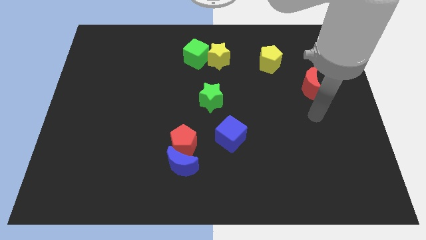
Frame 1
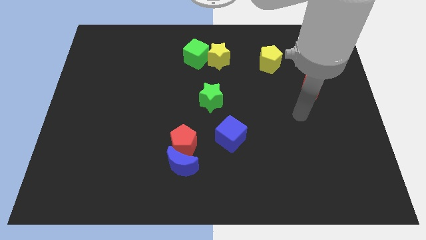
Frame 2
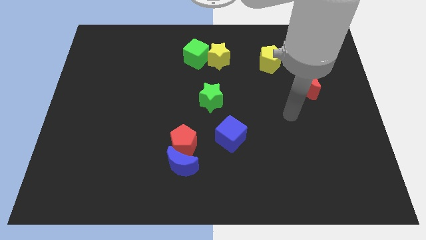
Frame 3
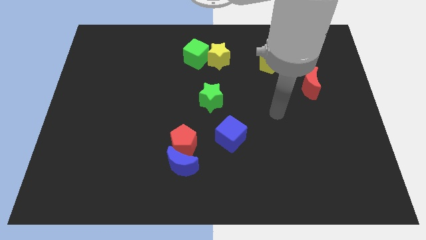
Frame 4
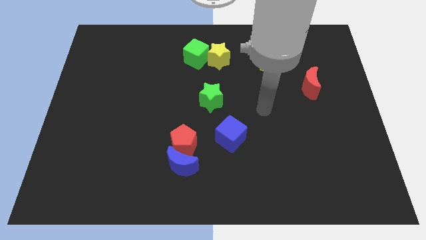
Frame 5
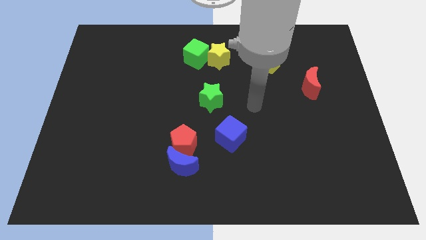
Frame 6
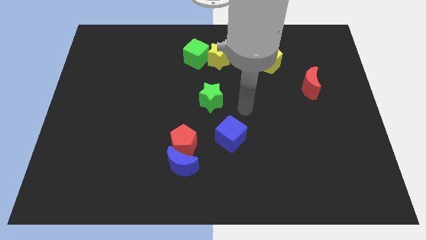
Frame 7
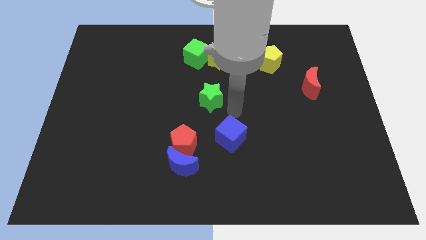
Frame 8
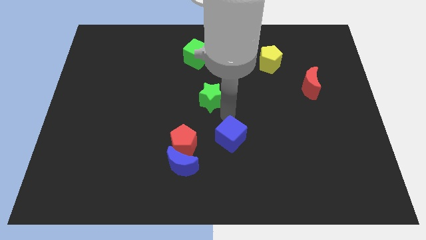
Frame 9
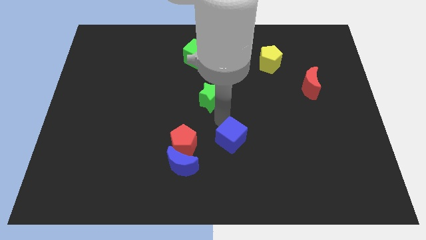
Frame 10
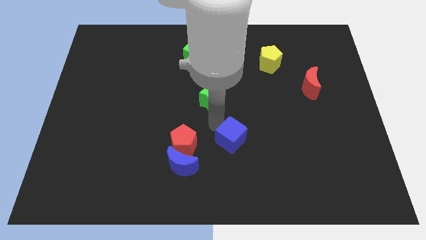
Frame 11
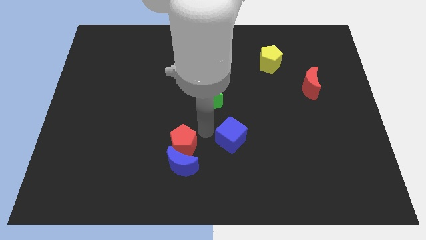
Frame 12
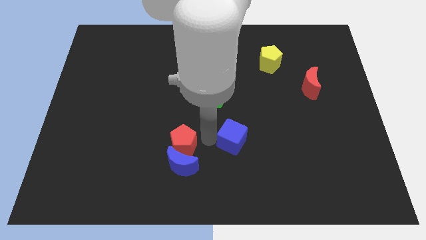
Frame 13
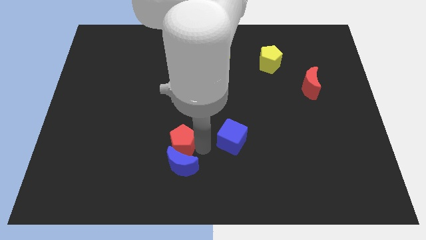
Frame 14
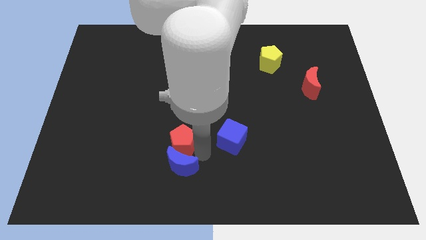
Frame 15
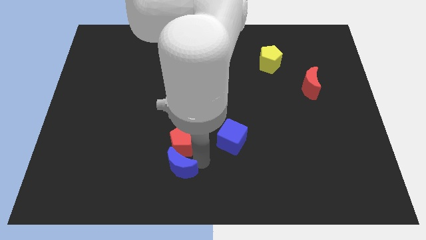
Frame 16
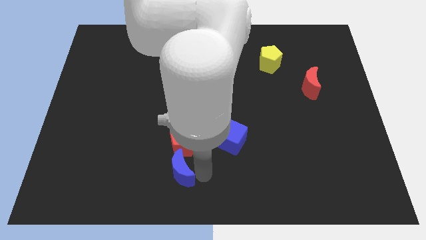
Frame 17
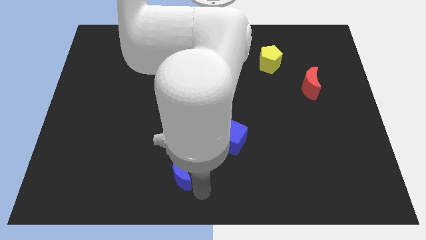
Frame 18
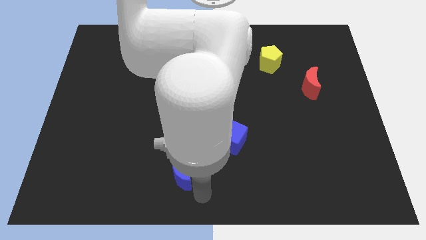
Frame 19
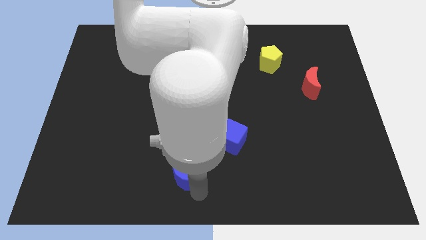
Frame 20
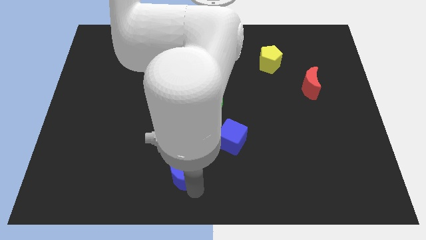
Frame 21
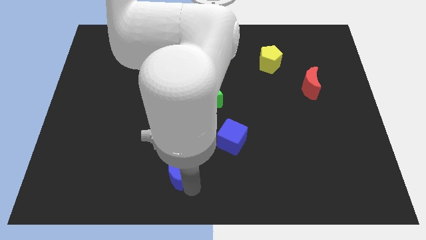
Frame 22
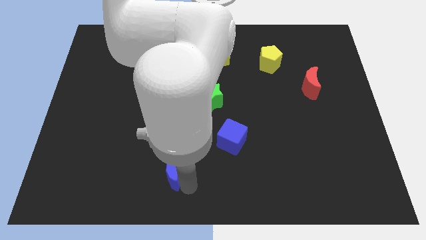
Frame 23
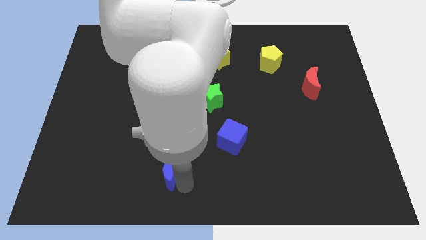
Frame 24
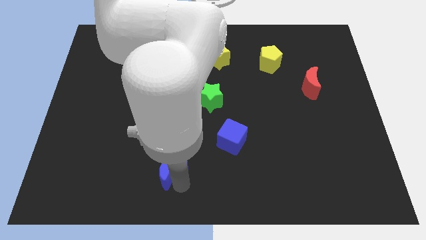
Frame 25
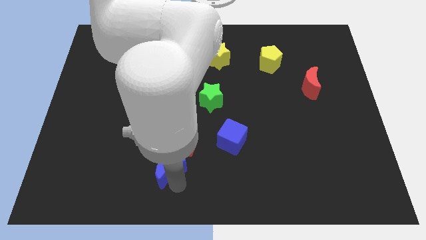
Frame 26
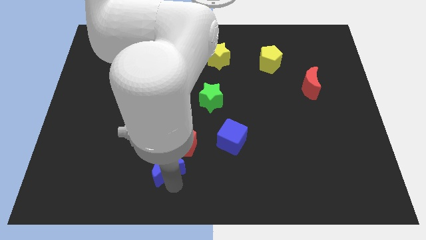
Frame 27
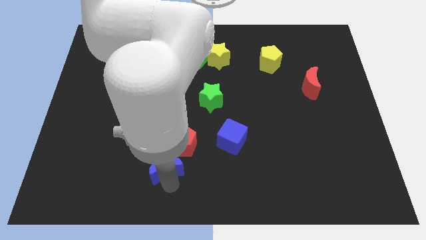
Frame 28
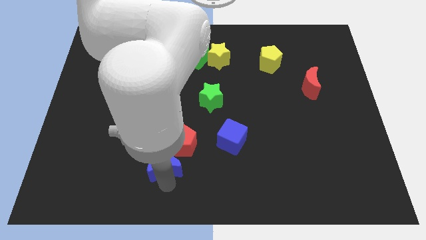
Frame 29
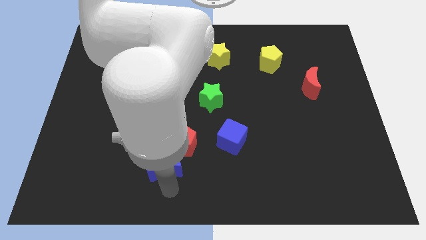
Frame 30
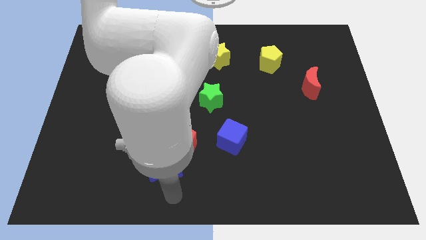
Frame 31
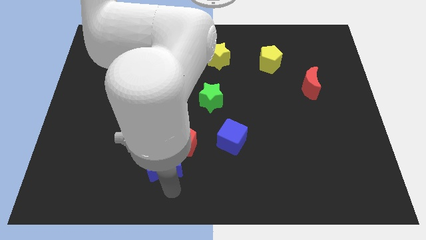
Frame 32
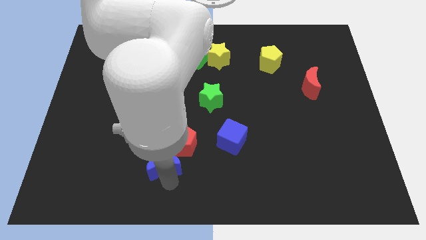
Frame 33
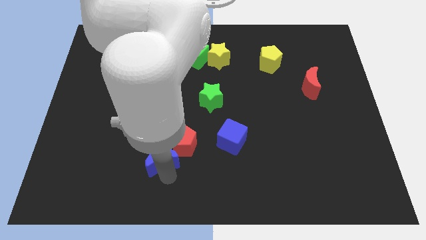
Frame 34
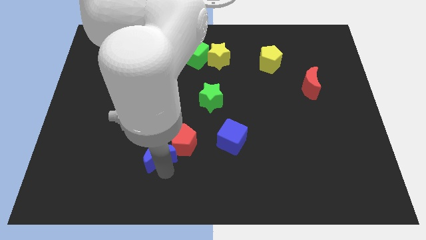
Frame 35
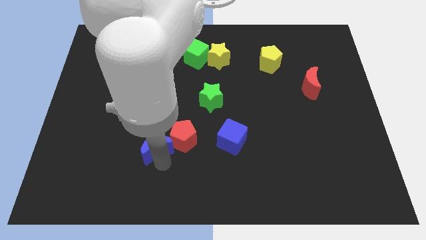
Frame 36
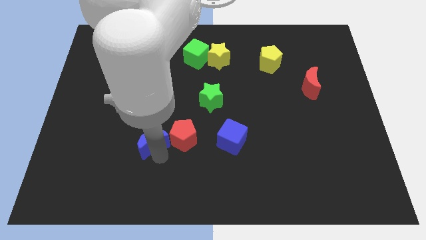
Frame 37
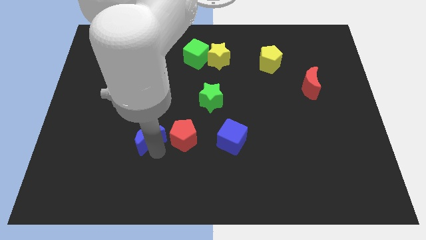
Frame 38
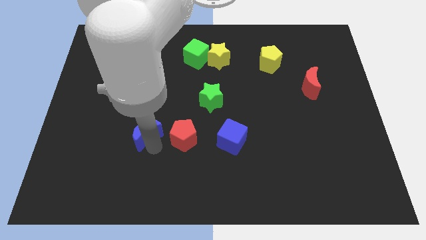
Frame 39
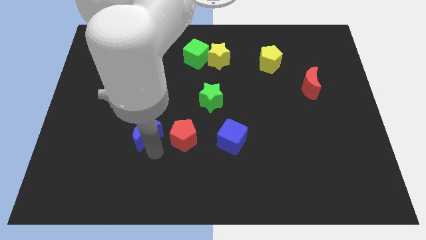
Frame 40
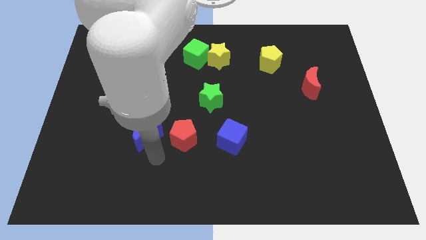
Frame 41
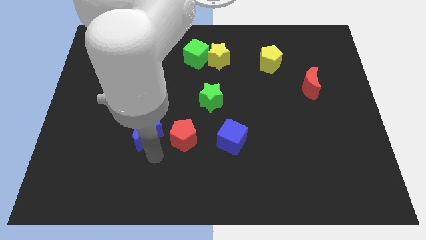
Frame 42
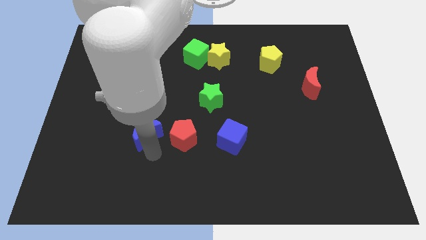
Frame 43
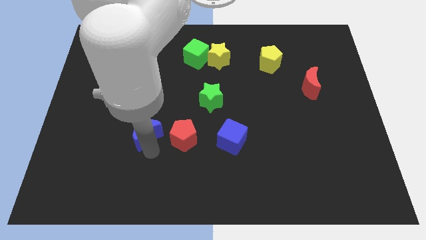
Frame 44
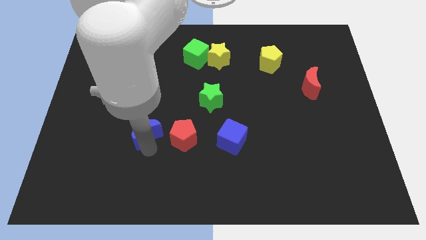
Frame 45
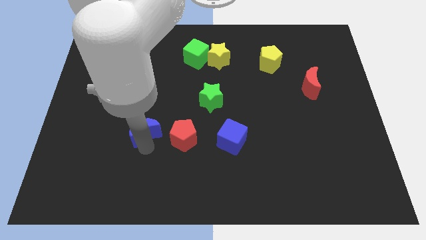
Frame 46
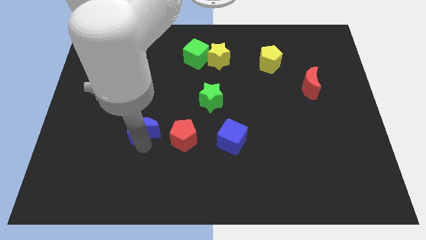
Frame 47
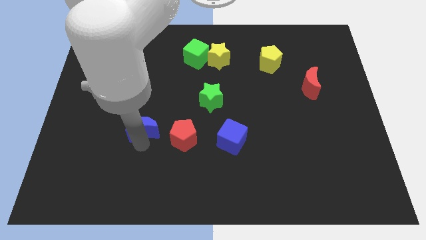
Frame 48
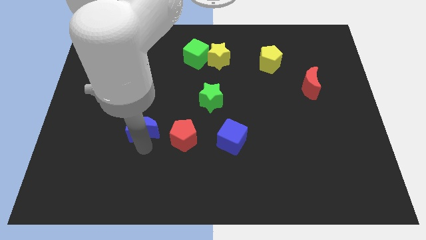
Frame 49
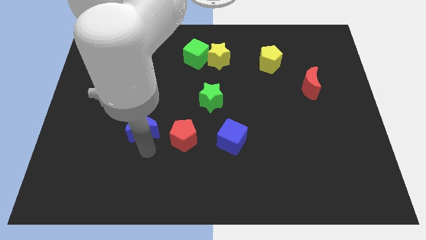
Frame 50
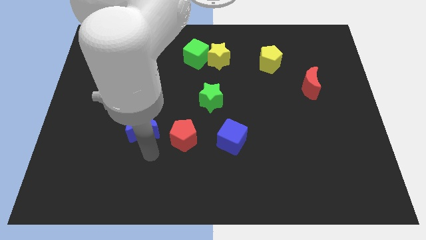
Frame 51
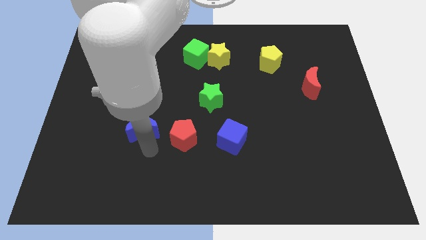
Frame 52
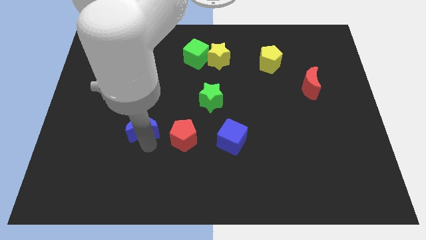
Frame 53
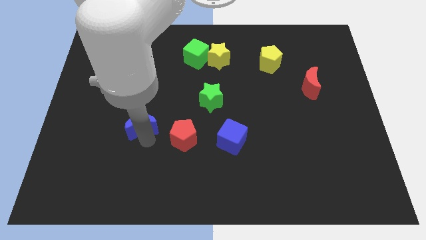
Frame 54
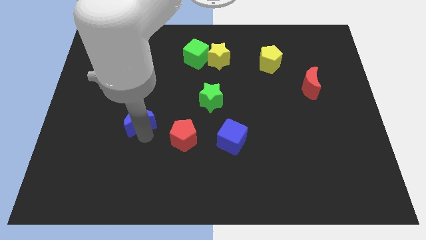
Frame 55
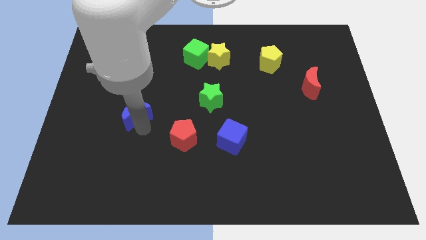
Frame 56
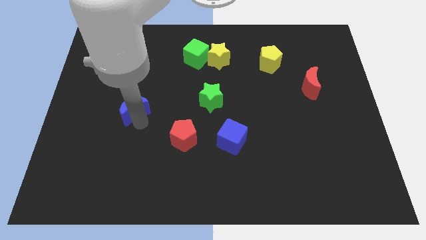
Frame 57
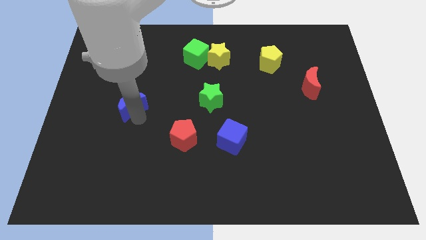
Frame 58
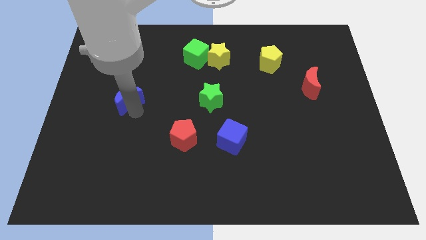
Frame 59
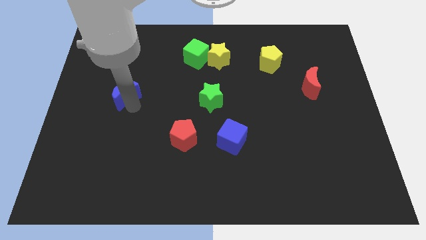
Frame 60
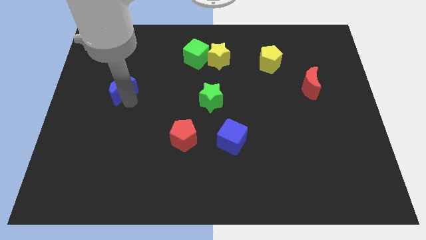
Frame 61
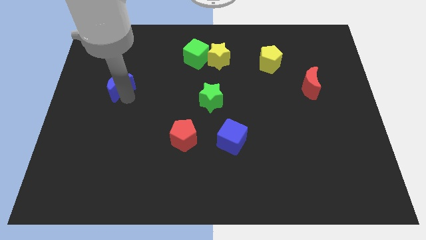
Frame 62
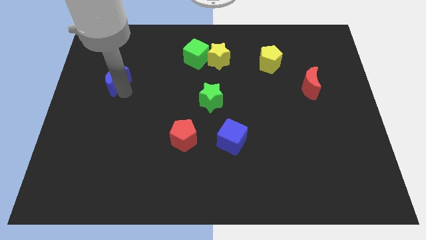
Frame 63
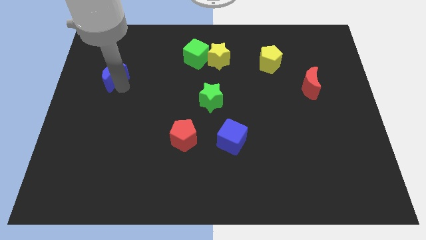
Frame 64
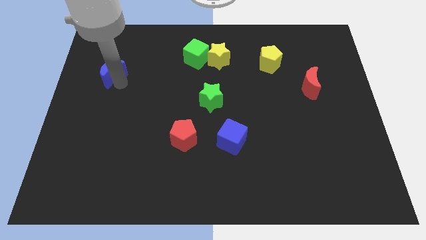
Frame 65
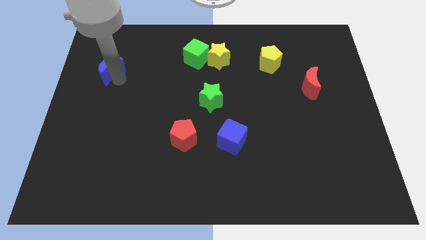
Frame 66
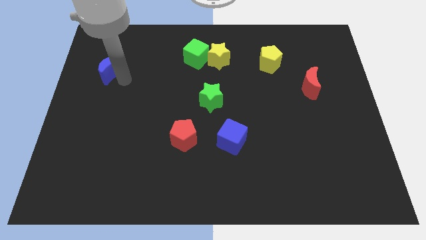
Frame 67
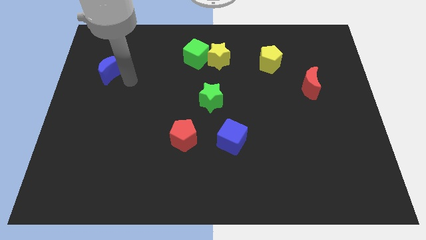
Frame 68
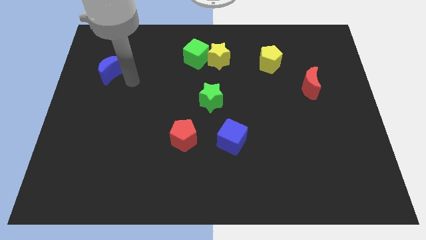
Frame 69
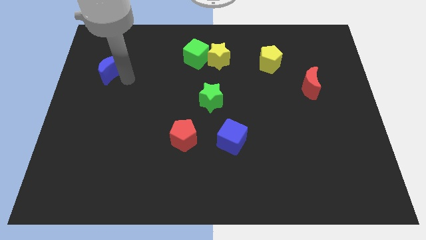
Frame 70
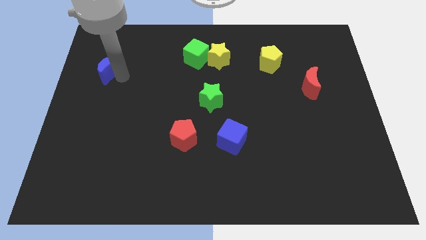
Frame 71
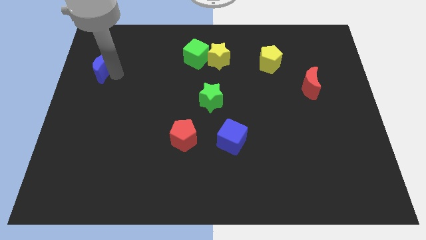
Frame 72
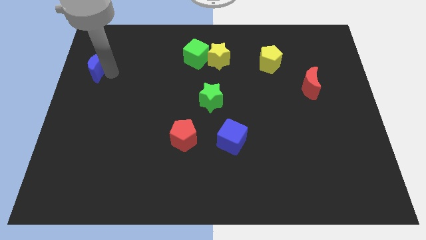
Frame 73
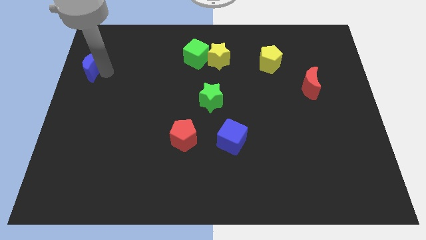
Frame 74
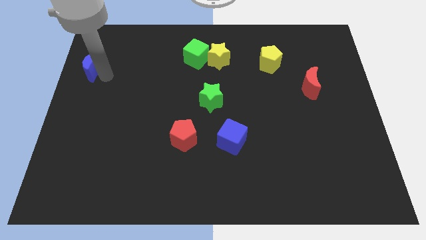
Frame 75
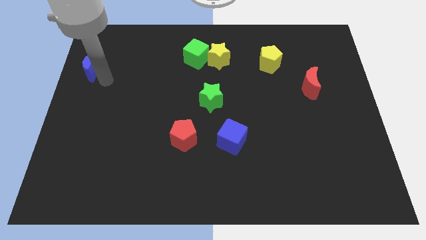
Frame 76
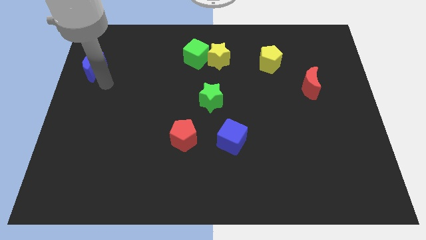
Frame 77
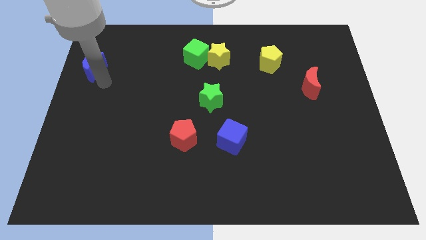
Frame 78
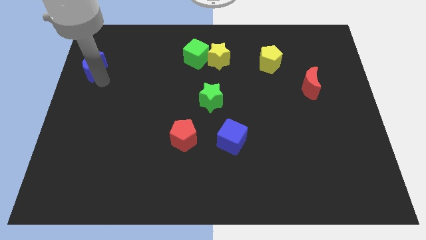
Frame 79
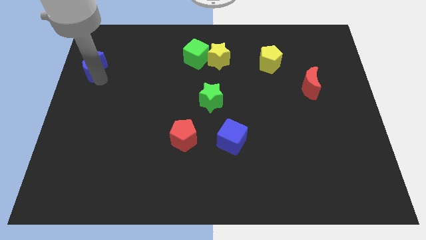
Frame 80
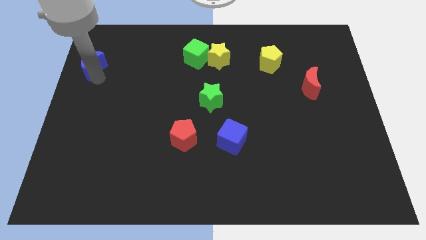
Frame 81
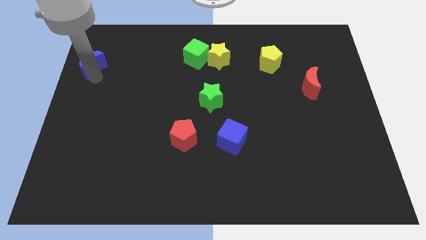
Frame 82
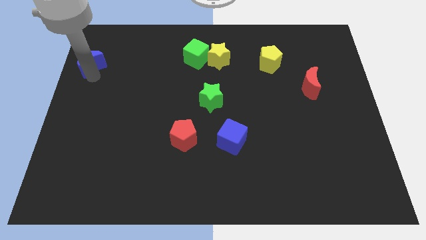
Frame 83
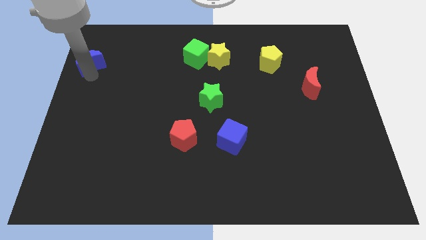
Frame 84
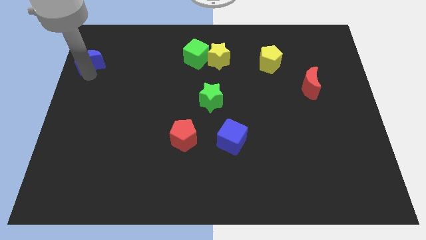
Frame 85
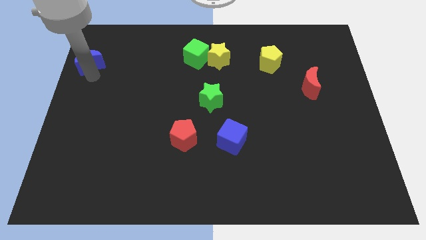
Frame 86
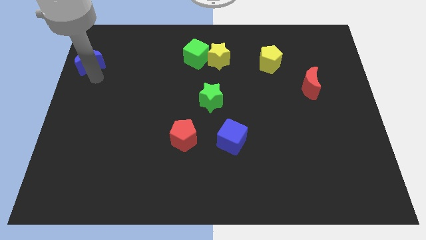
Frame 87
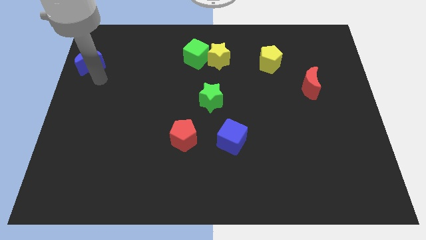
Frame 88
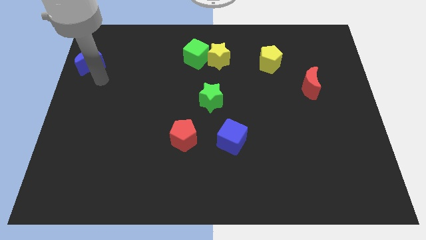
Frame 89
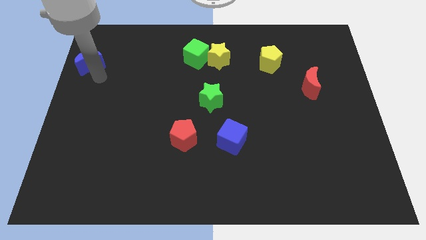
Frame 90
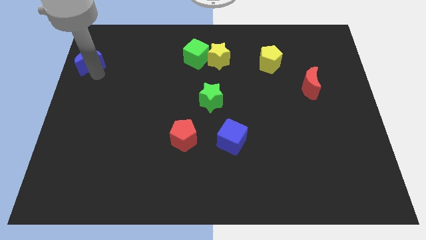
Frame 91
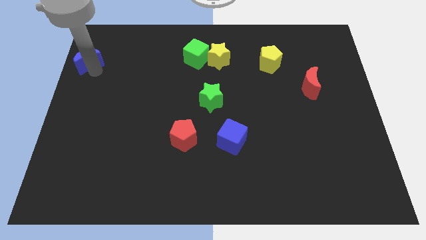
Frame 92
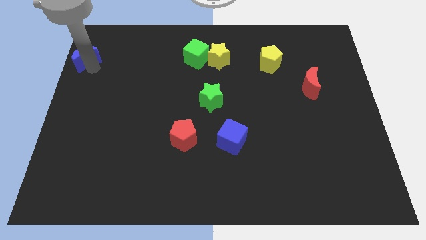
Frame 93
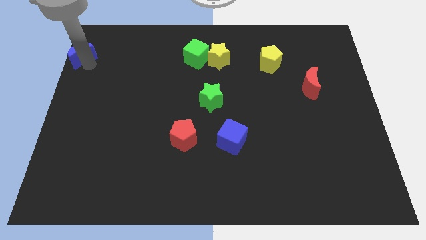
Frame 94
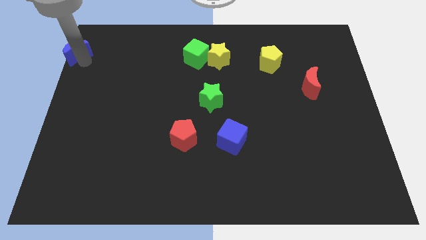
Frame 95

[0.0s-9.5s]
push the blue moon to the upper left corner
